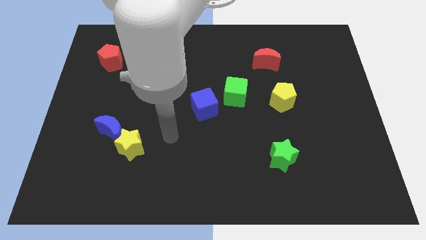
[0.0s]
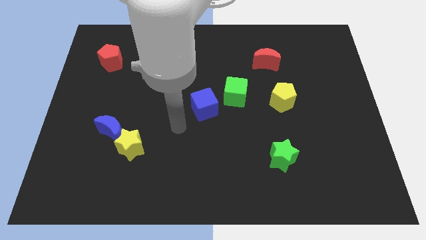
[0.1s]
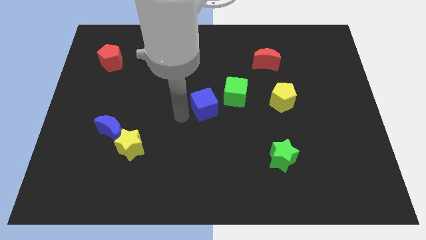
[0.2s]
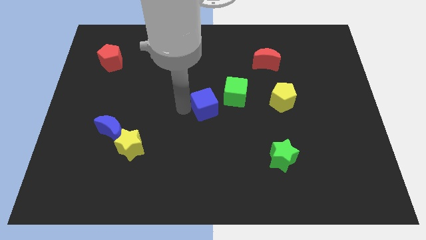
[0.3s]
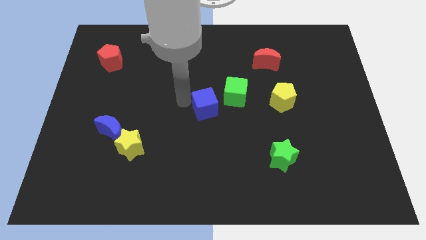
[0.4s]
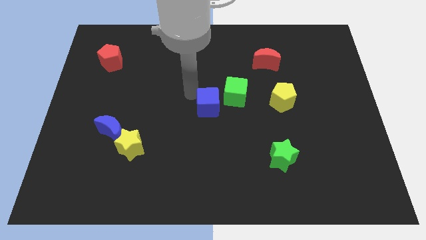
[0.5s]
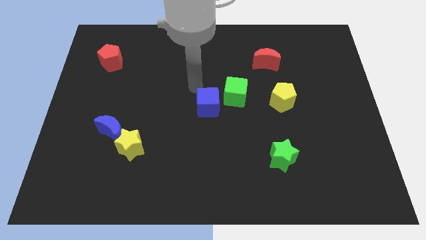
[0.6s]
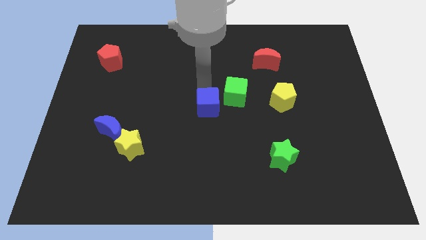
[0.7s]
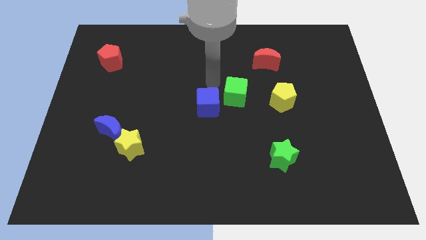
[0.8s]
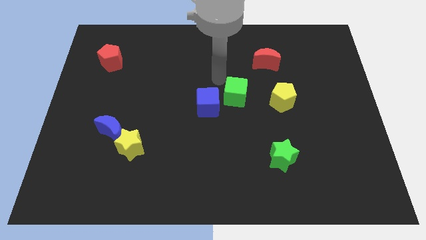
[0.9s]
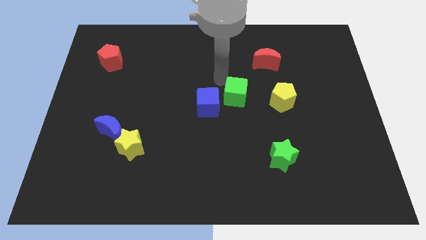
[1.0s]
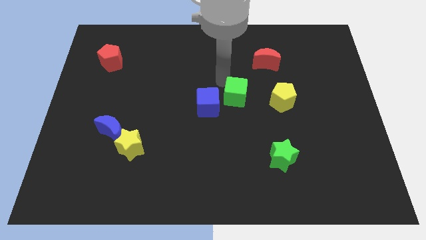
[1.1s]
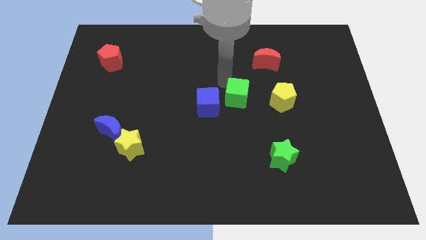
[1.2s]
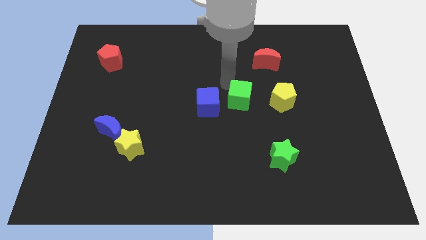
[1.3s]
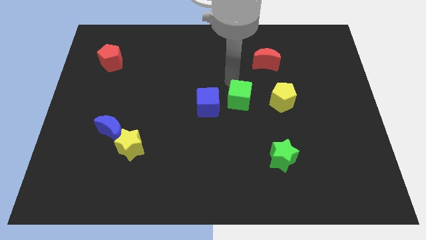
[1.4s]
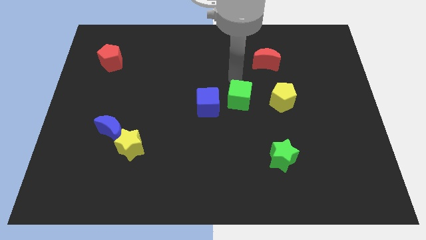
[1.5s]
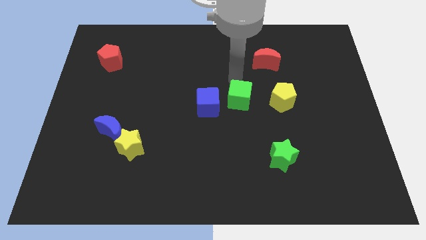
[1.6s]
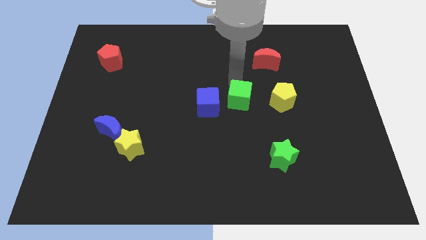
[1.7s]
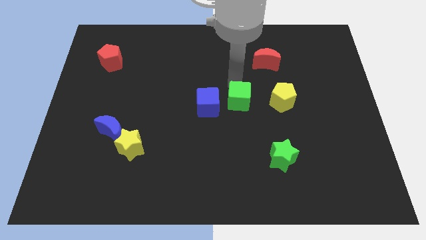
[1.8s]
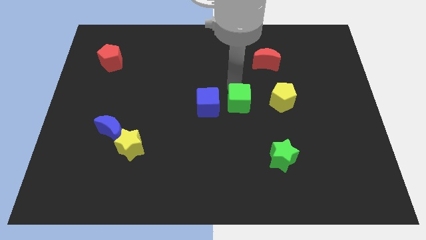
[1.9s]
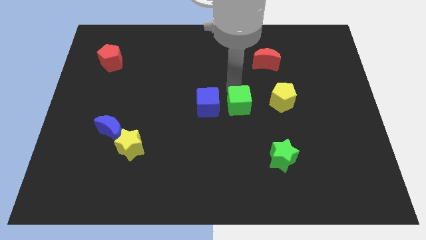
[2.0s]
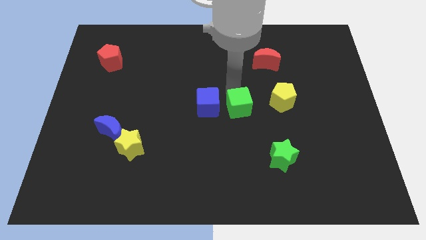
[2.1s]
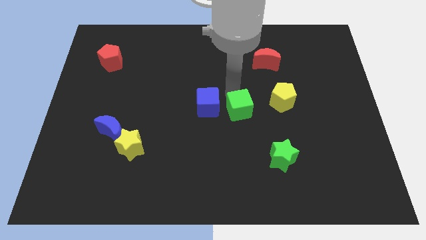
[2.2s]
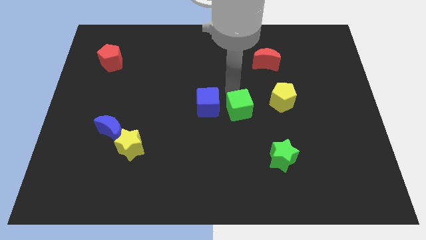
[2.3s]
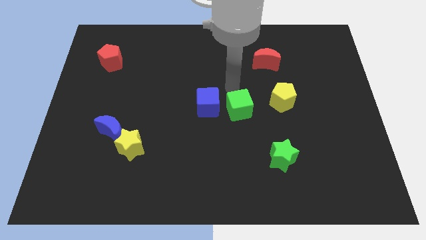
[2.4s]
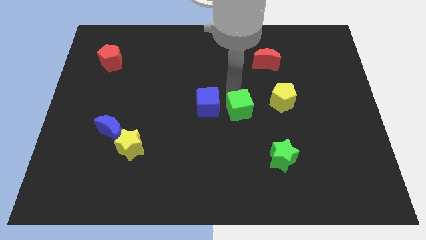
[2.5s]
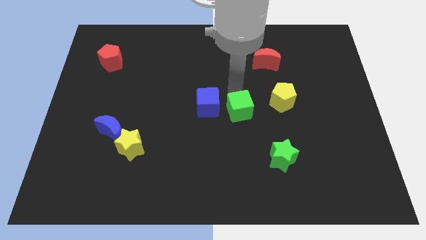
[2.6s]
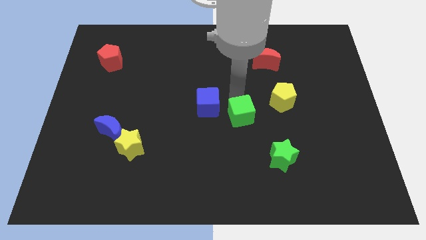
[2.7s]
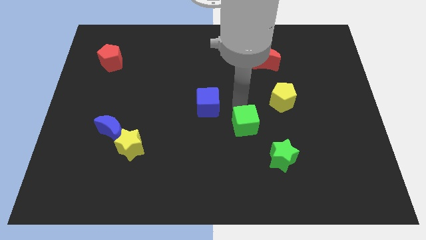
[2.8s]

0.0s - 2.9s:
push the green cube a little bit down

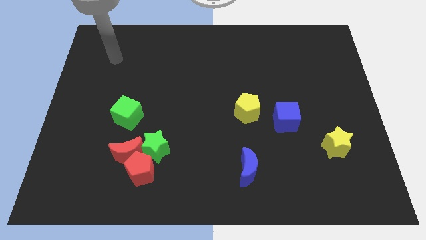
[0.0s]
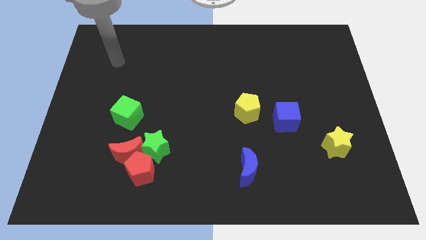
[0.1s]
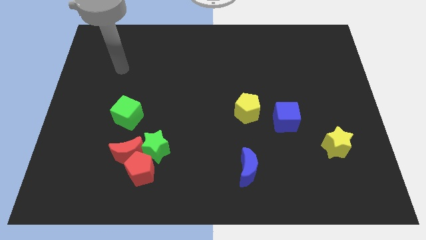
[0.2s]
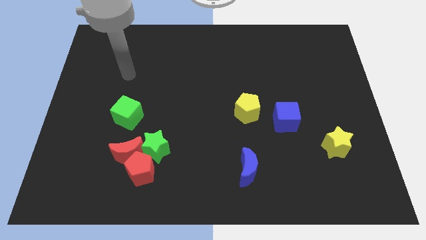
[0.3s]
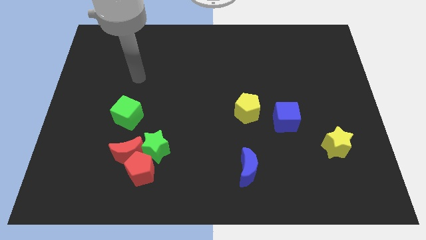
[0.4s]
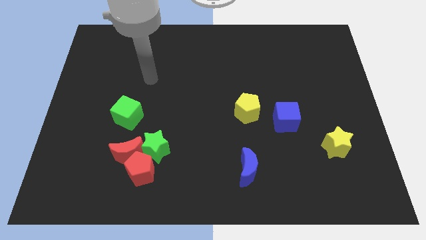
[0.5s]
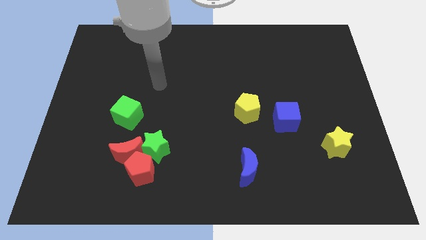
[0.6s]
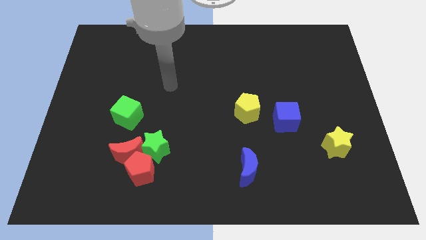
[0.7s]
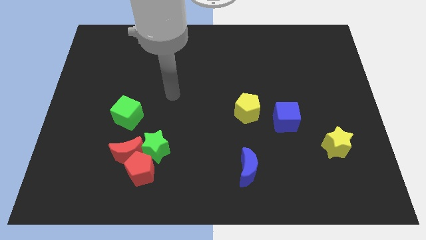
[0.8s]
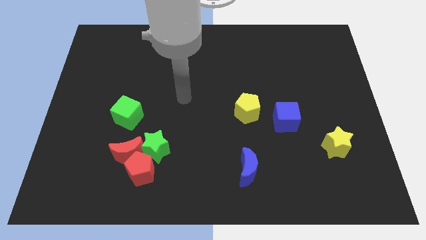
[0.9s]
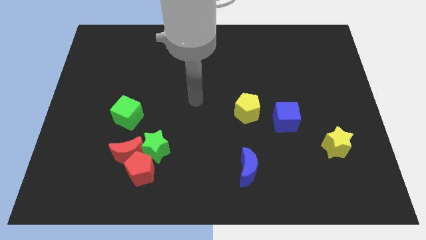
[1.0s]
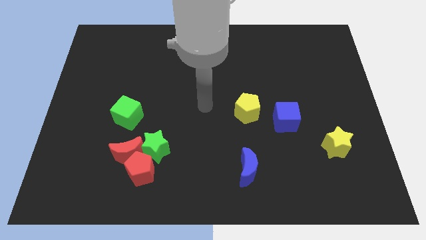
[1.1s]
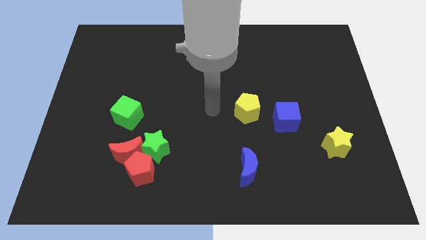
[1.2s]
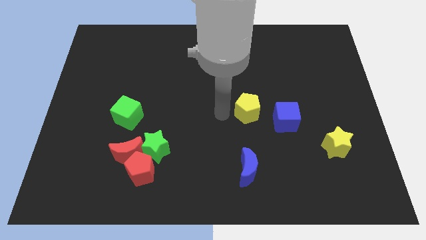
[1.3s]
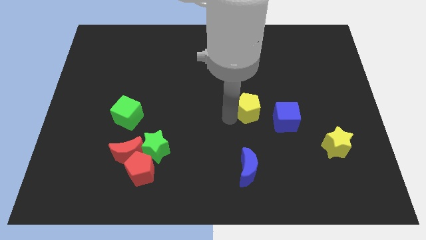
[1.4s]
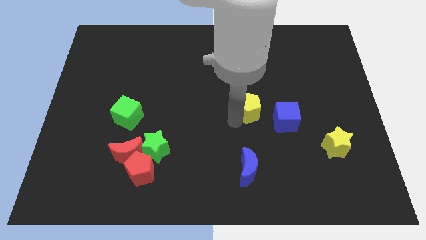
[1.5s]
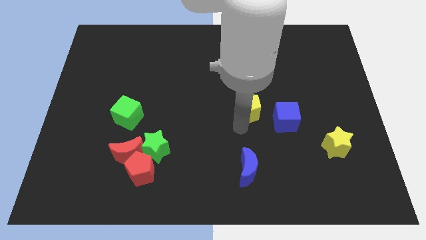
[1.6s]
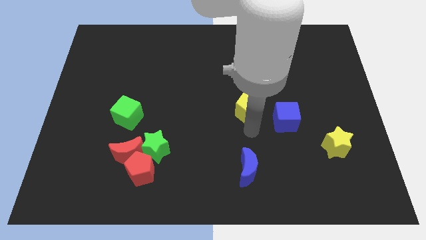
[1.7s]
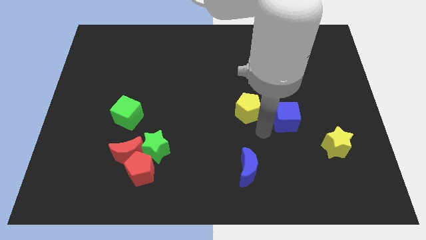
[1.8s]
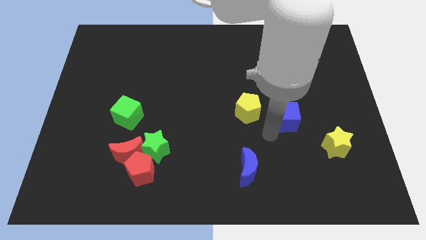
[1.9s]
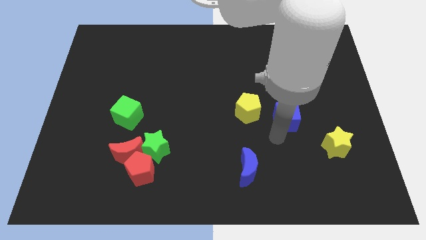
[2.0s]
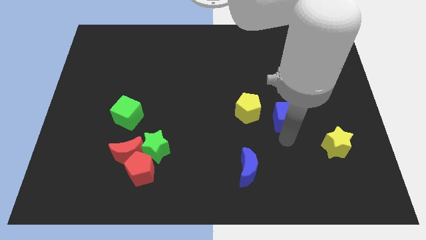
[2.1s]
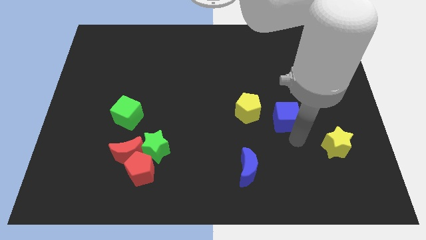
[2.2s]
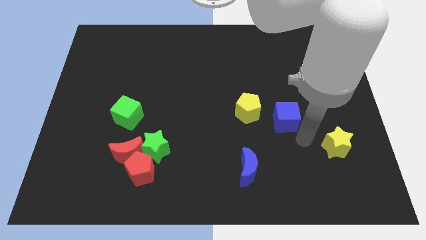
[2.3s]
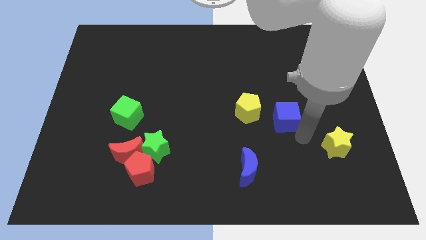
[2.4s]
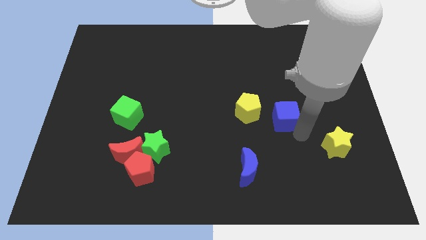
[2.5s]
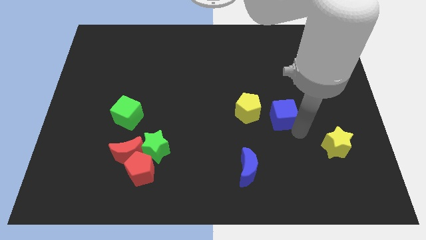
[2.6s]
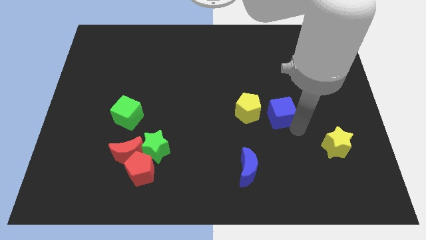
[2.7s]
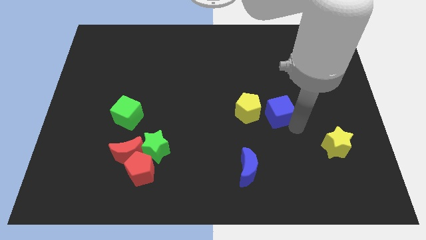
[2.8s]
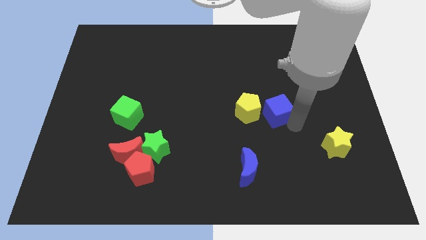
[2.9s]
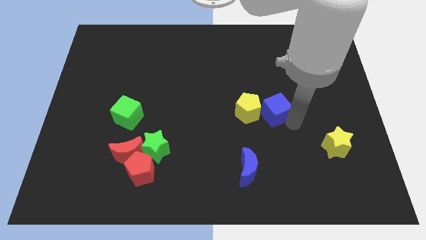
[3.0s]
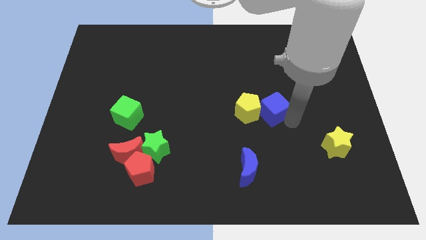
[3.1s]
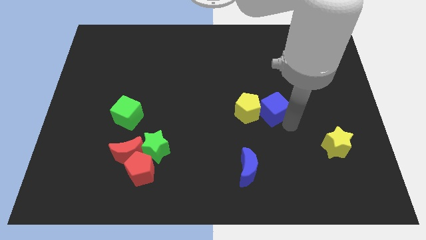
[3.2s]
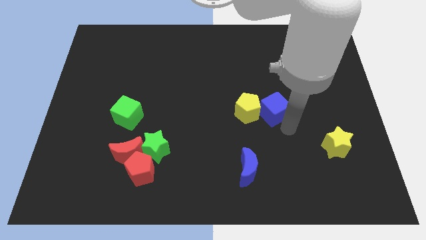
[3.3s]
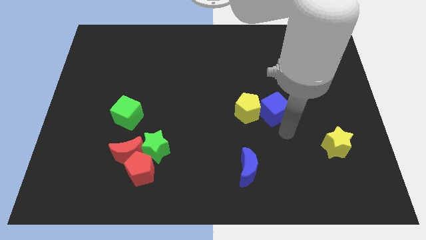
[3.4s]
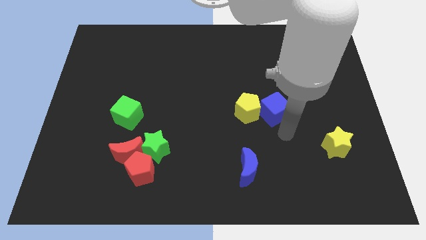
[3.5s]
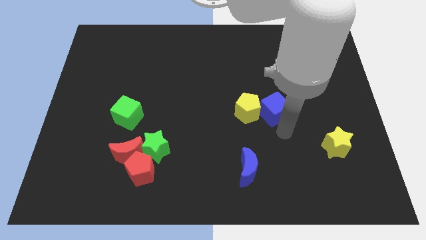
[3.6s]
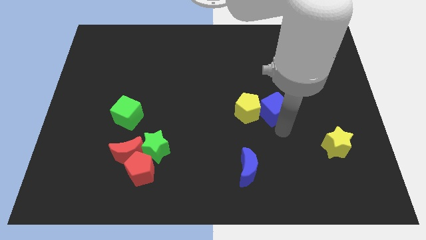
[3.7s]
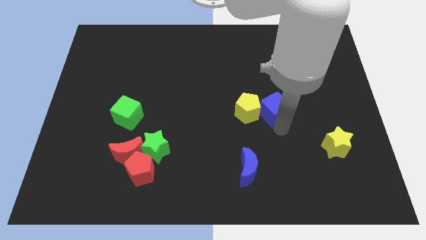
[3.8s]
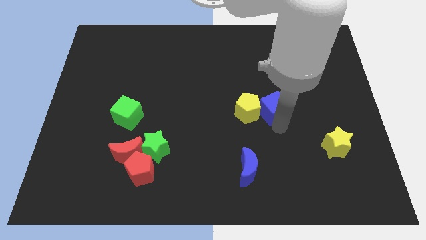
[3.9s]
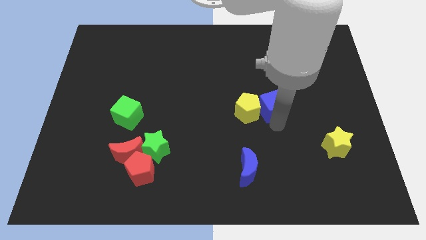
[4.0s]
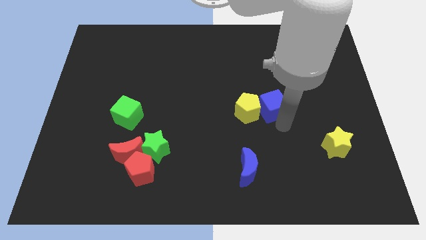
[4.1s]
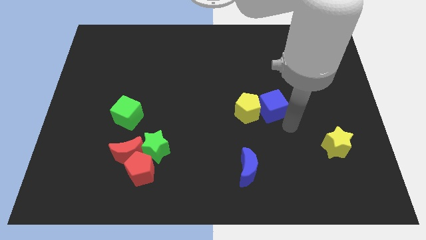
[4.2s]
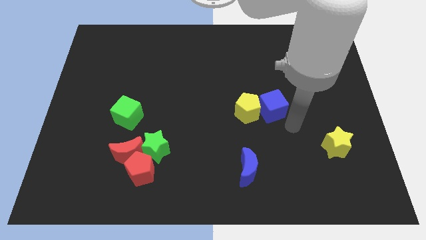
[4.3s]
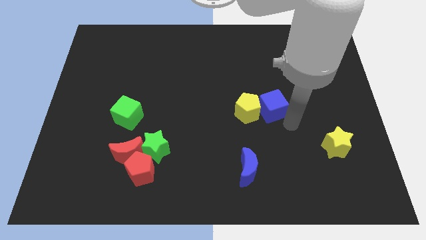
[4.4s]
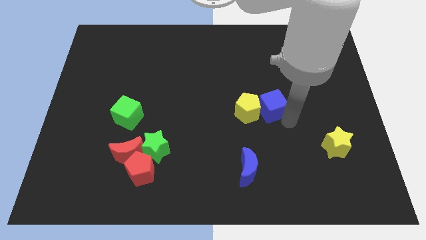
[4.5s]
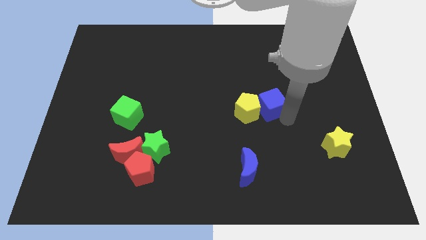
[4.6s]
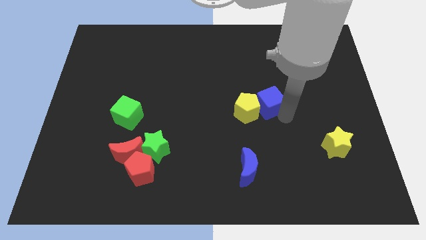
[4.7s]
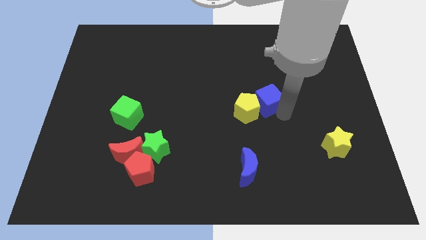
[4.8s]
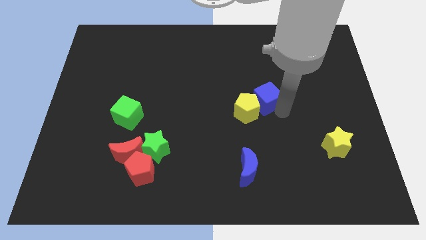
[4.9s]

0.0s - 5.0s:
slightly move the blue cube up and then to the left
